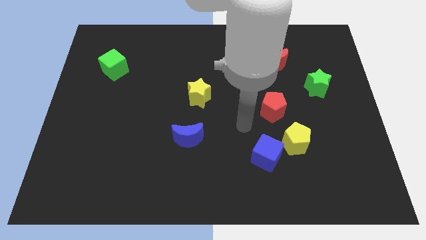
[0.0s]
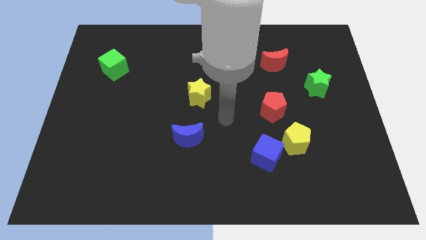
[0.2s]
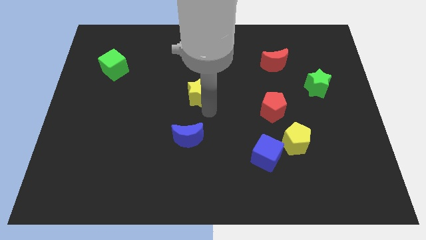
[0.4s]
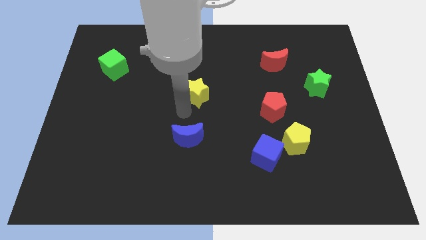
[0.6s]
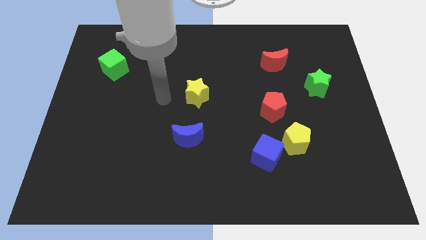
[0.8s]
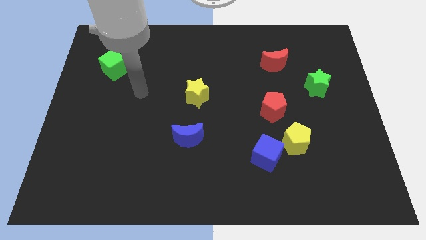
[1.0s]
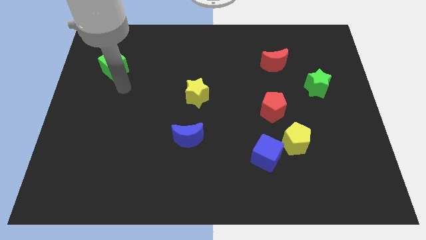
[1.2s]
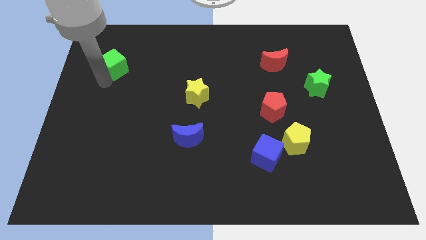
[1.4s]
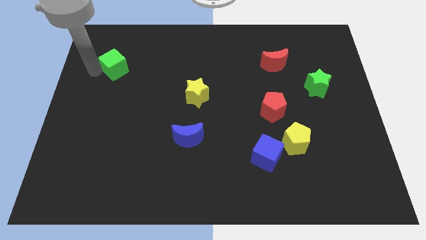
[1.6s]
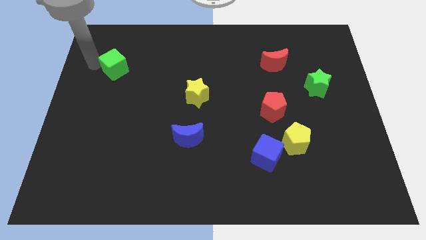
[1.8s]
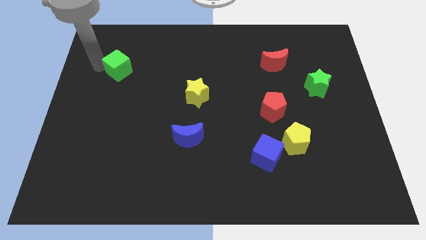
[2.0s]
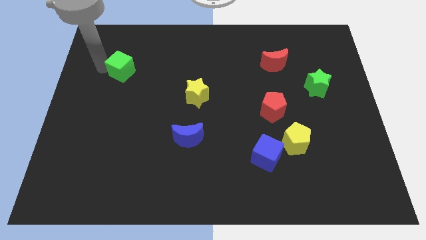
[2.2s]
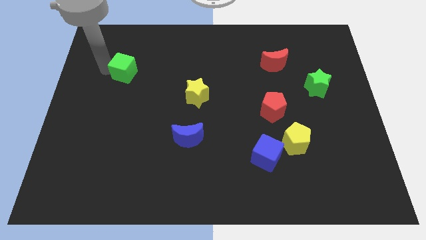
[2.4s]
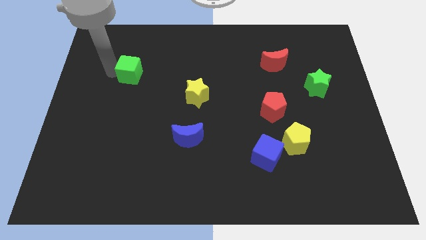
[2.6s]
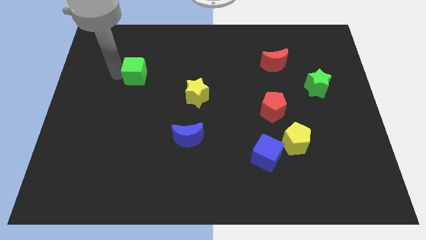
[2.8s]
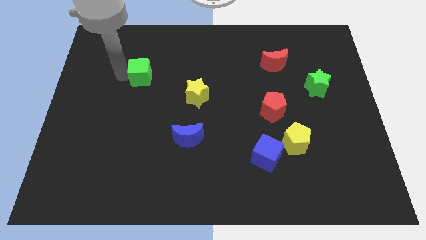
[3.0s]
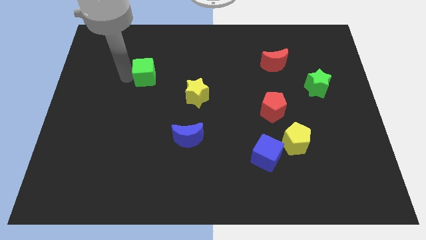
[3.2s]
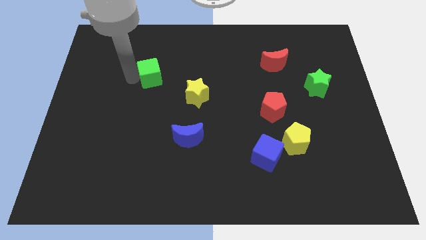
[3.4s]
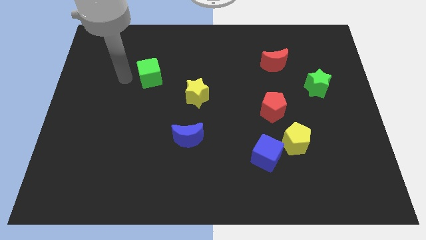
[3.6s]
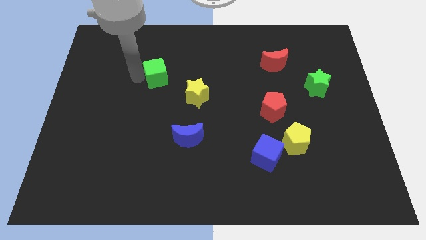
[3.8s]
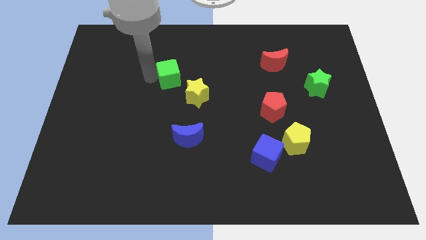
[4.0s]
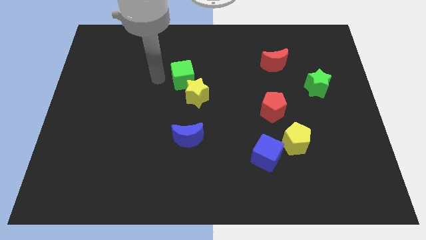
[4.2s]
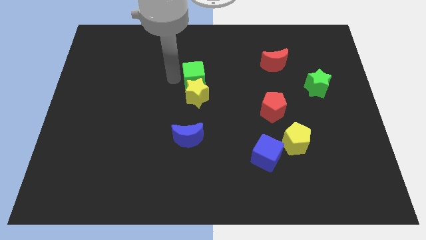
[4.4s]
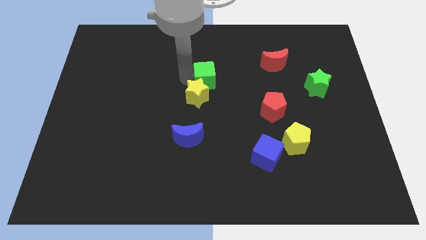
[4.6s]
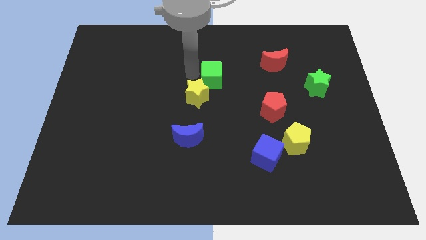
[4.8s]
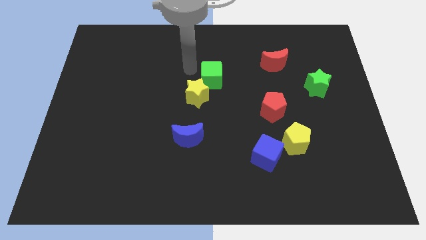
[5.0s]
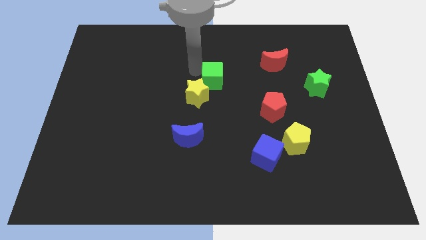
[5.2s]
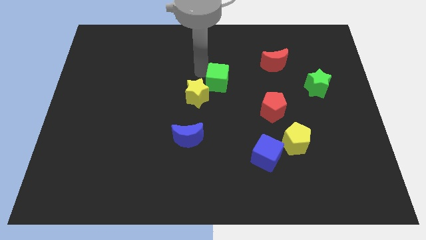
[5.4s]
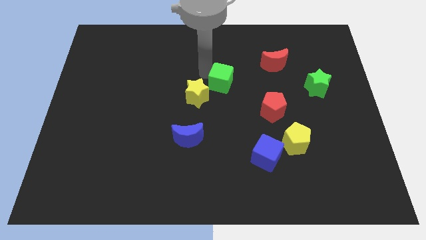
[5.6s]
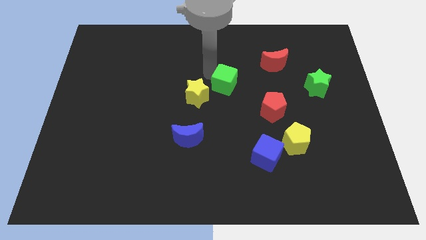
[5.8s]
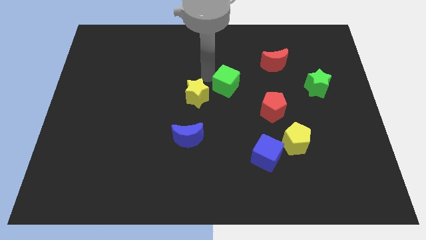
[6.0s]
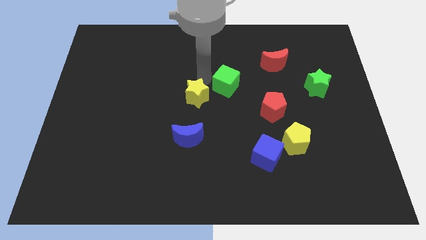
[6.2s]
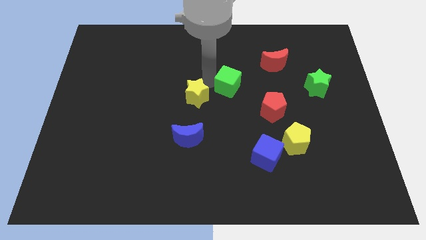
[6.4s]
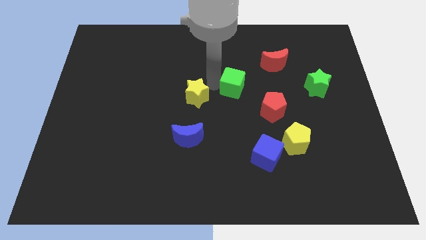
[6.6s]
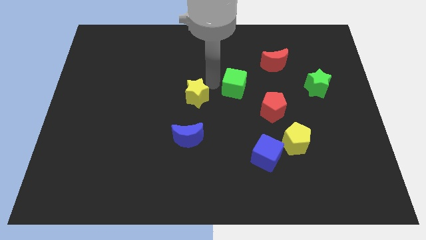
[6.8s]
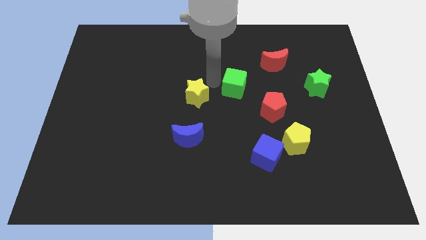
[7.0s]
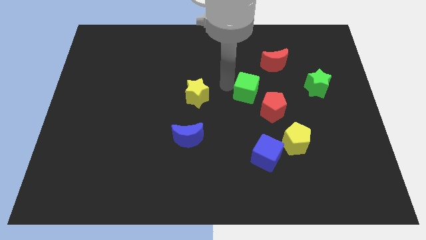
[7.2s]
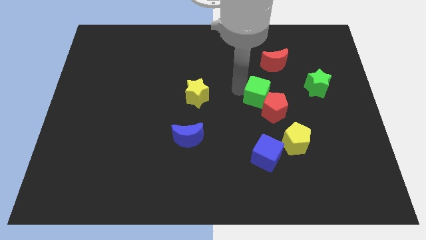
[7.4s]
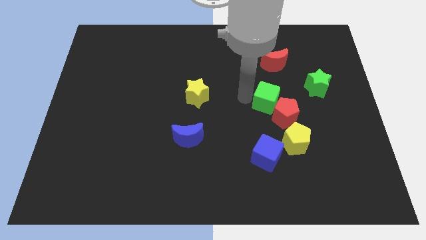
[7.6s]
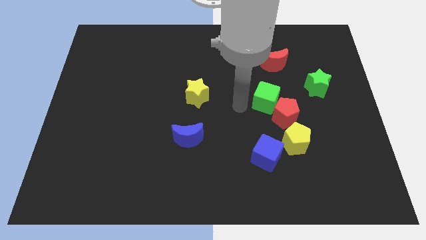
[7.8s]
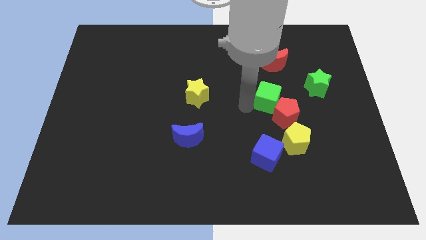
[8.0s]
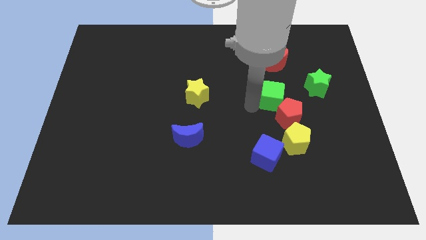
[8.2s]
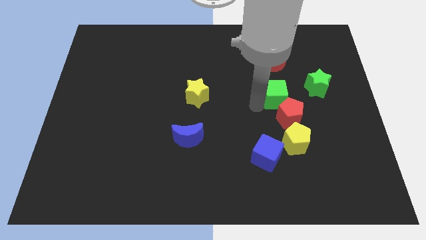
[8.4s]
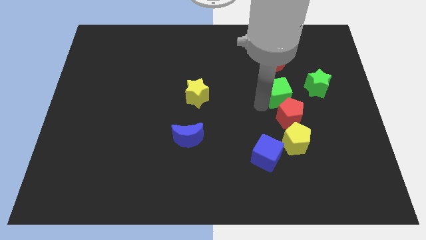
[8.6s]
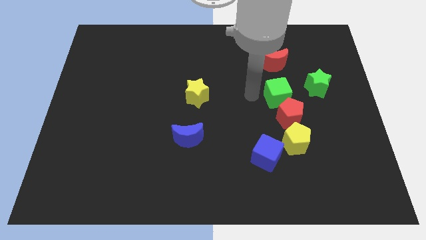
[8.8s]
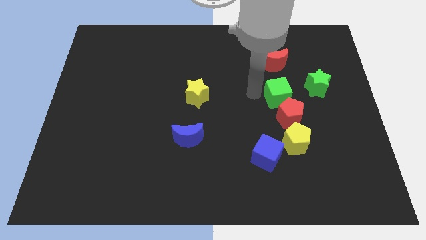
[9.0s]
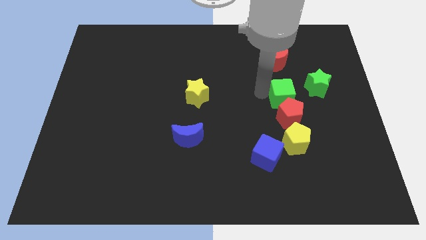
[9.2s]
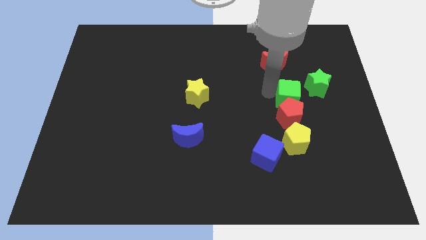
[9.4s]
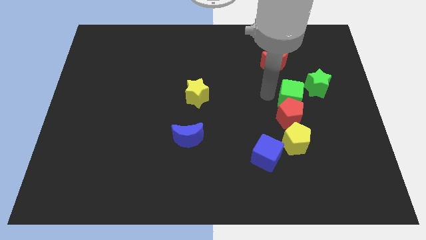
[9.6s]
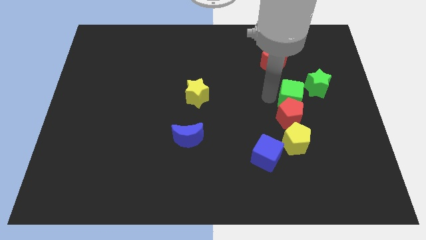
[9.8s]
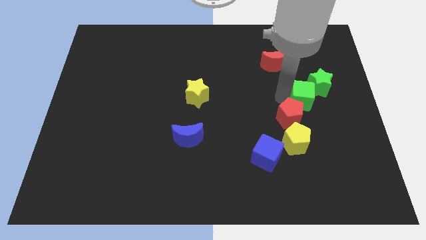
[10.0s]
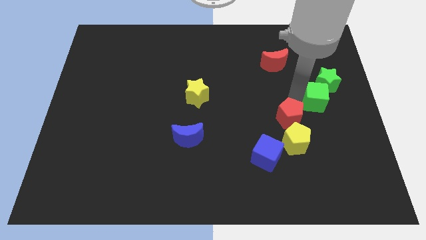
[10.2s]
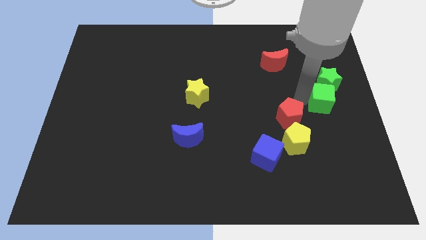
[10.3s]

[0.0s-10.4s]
slide the green cube to the right side

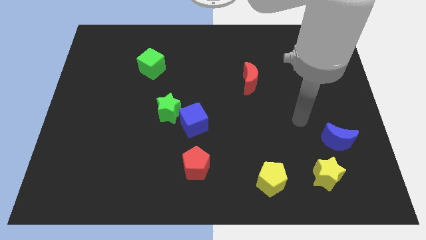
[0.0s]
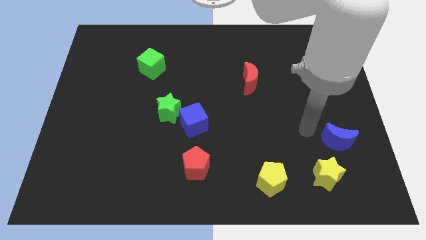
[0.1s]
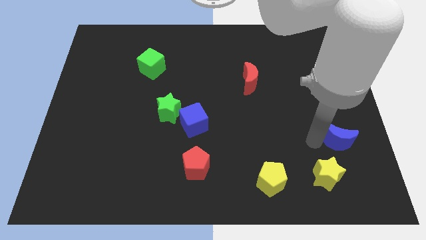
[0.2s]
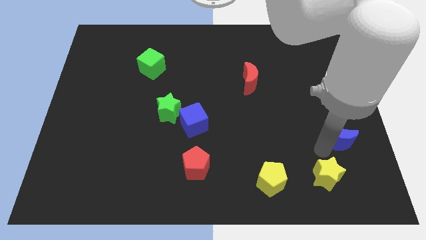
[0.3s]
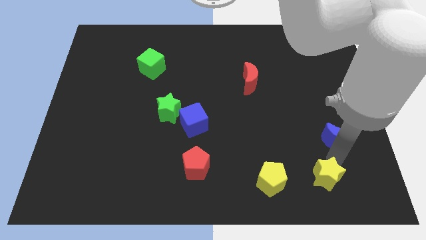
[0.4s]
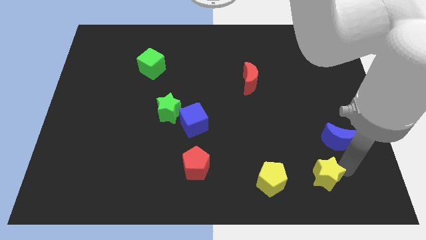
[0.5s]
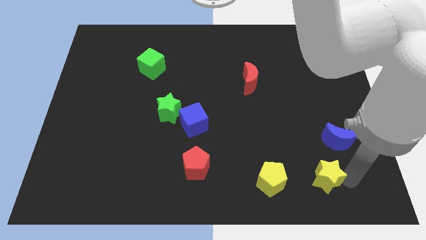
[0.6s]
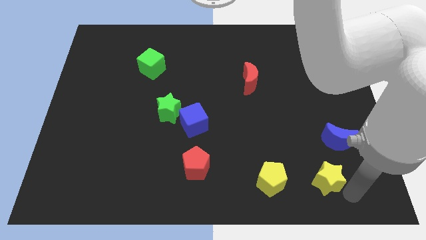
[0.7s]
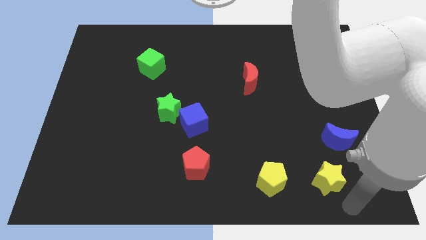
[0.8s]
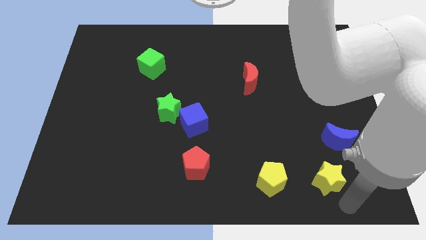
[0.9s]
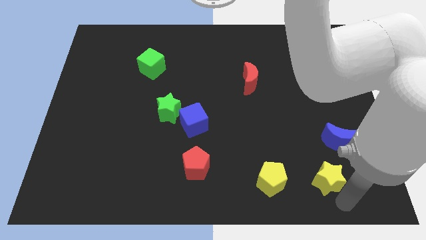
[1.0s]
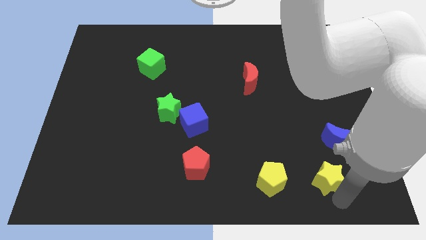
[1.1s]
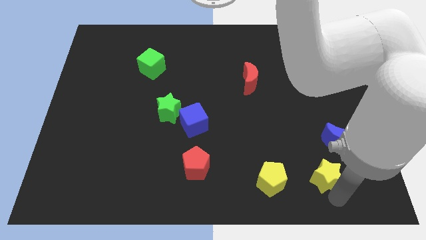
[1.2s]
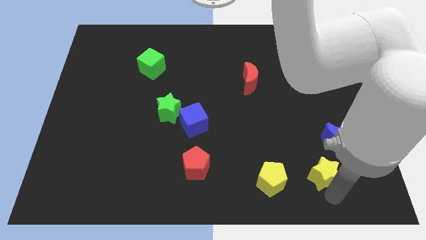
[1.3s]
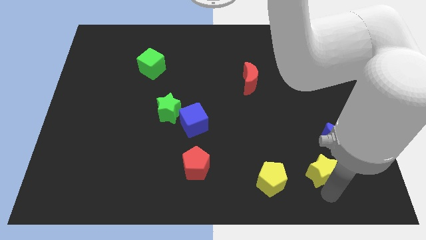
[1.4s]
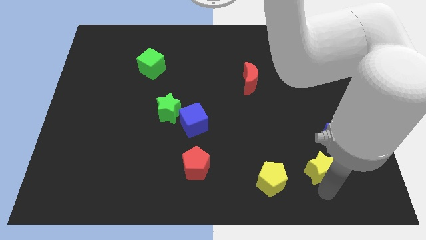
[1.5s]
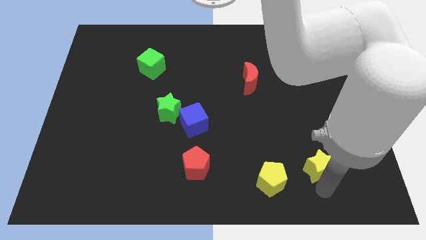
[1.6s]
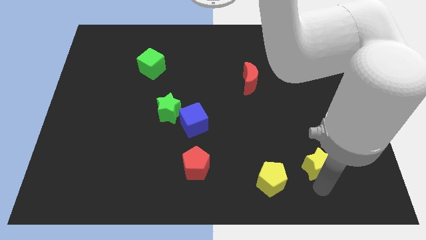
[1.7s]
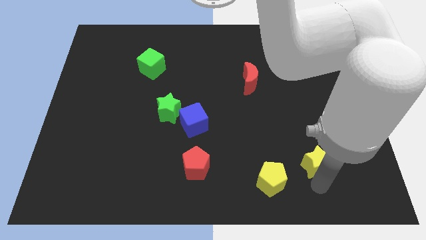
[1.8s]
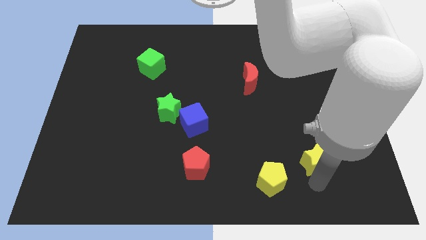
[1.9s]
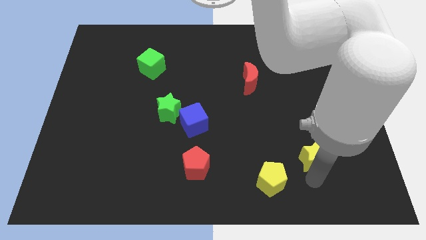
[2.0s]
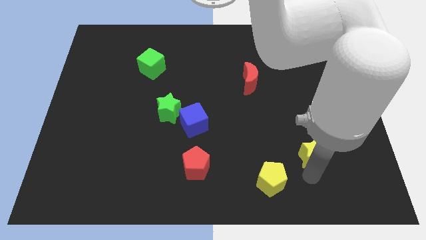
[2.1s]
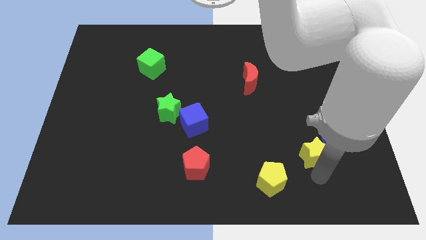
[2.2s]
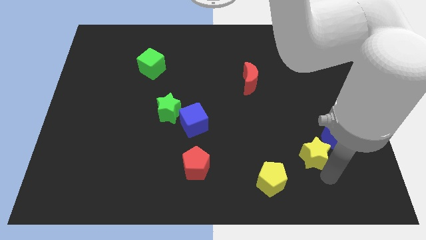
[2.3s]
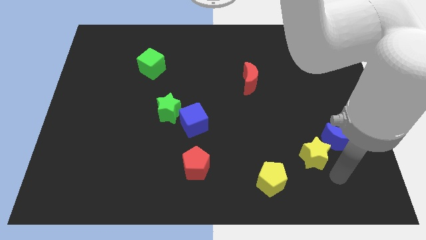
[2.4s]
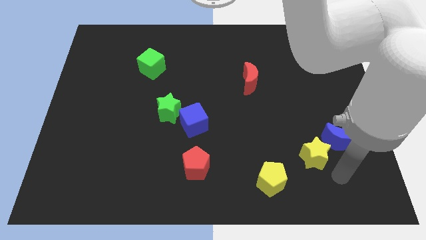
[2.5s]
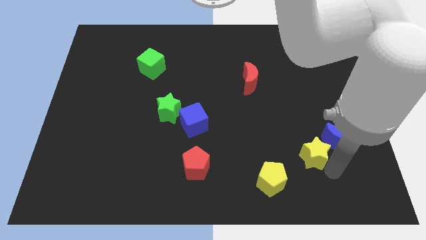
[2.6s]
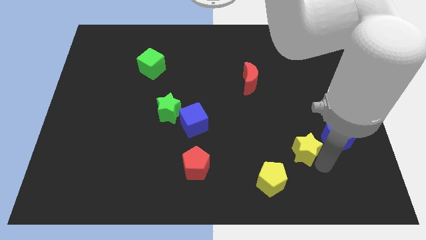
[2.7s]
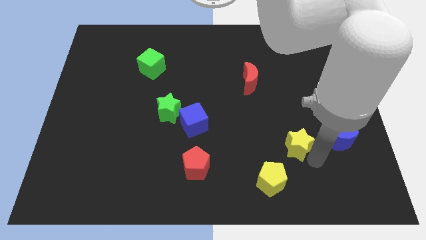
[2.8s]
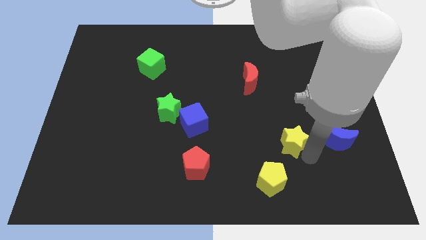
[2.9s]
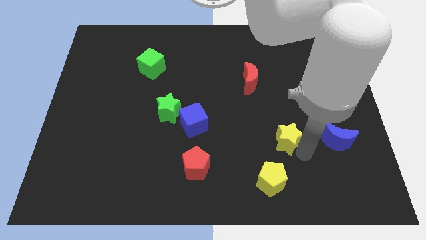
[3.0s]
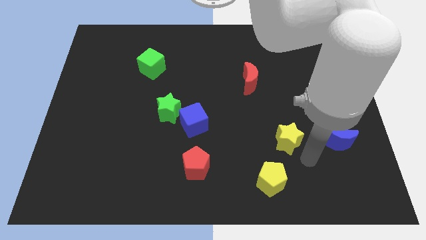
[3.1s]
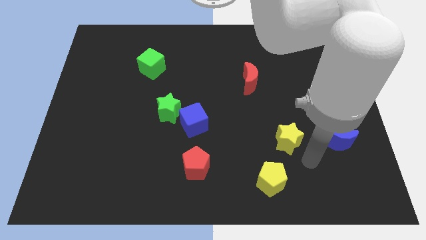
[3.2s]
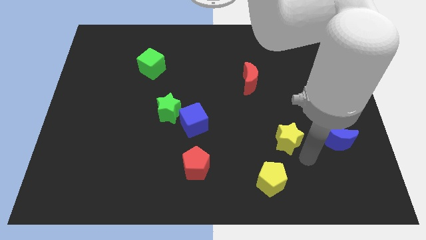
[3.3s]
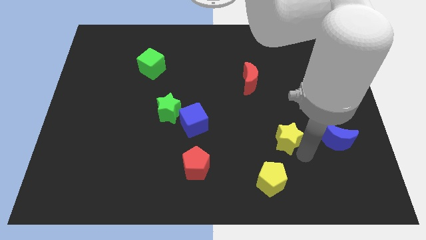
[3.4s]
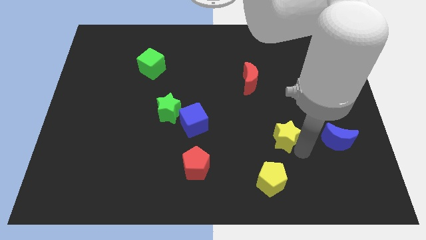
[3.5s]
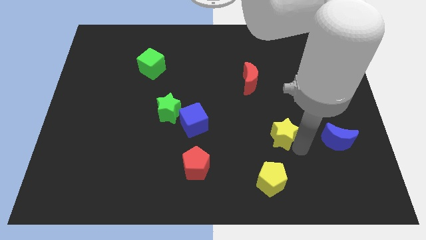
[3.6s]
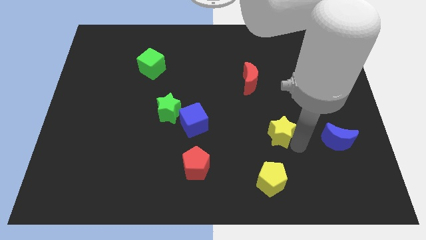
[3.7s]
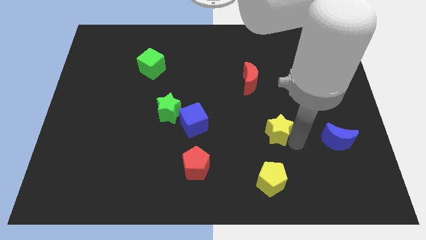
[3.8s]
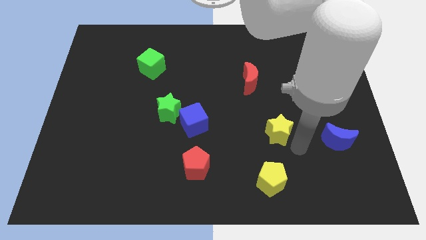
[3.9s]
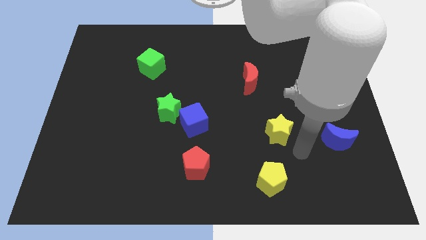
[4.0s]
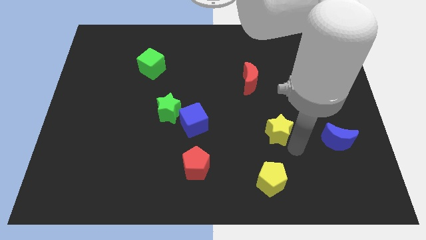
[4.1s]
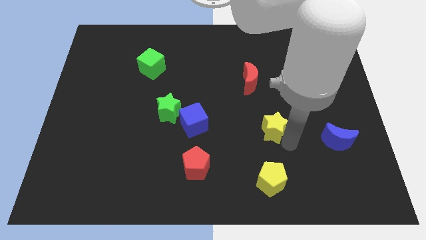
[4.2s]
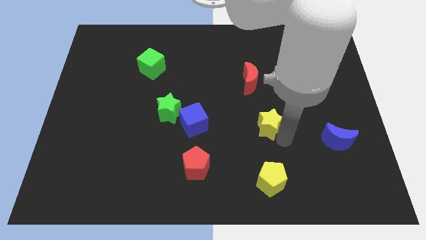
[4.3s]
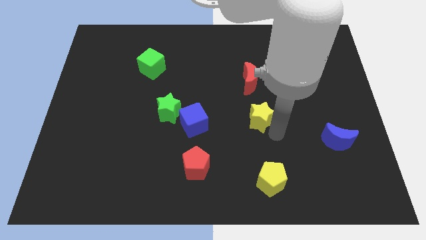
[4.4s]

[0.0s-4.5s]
slide the yellow star to the middle of the board
